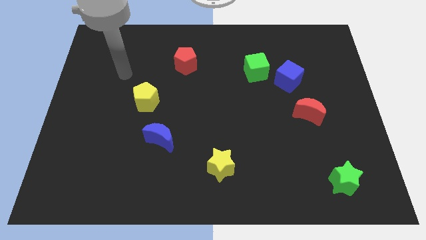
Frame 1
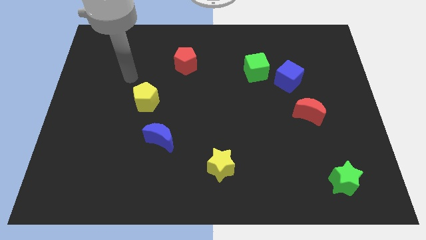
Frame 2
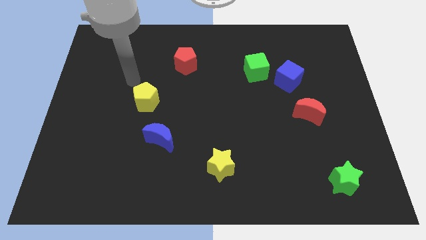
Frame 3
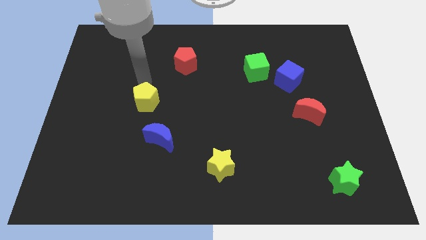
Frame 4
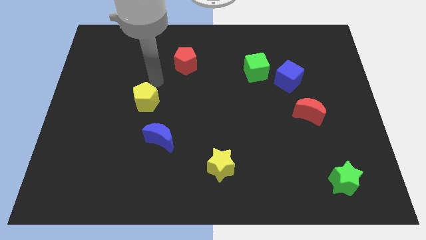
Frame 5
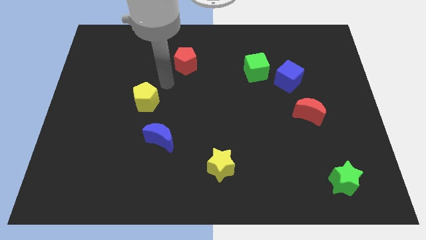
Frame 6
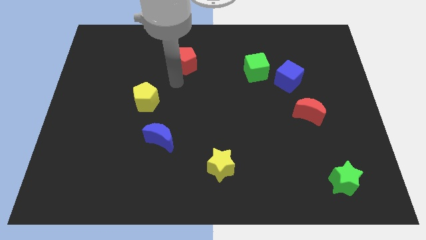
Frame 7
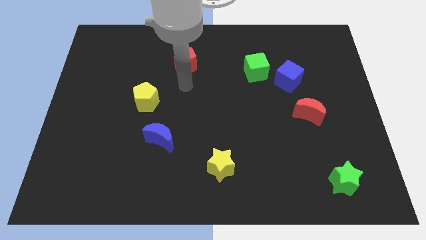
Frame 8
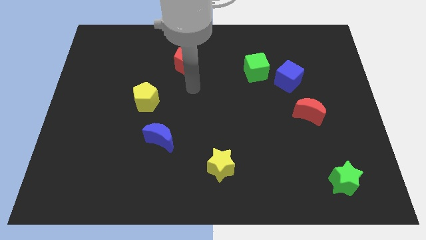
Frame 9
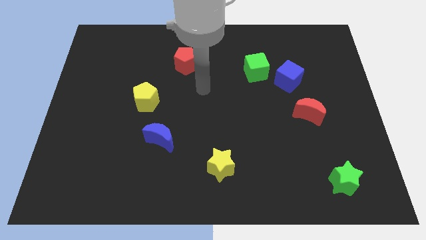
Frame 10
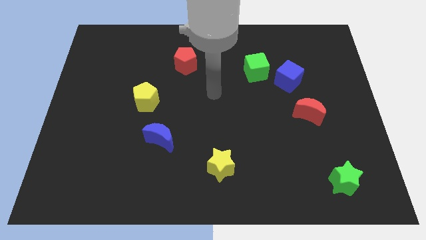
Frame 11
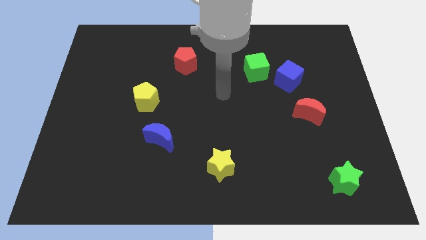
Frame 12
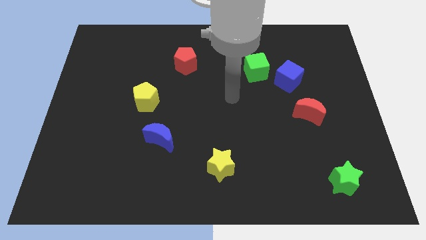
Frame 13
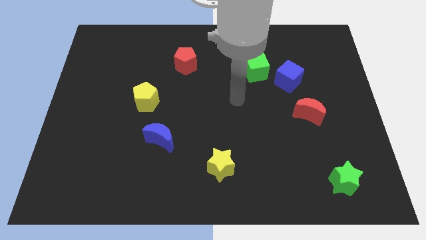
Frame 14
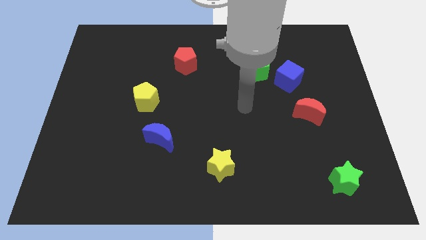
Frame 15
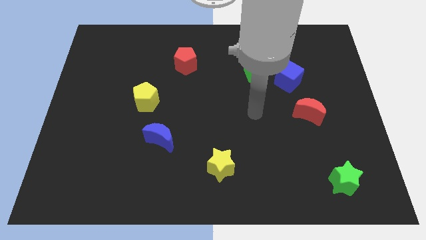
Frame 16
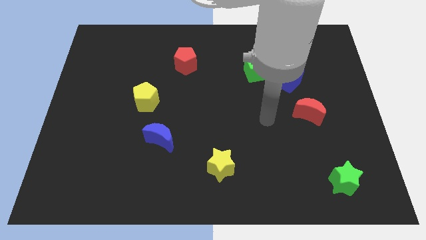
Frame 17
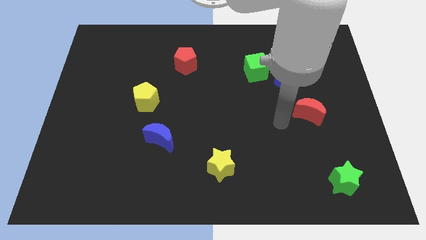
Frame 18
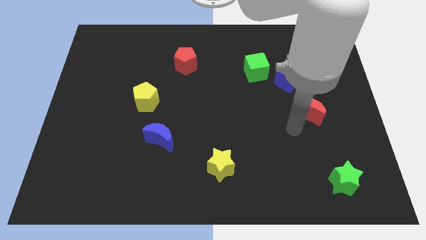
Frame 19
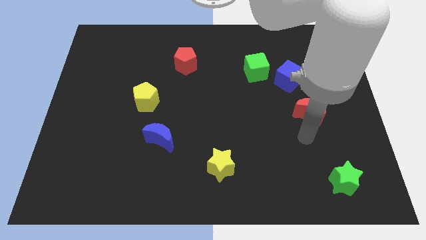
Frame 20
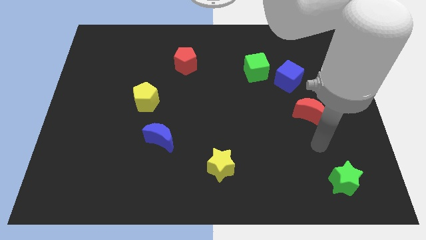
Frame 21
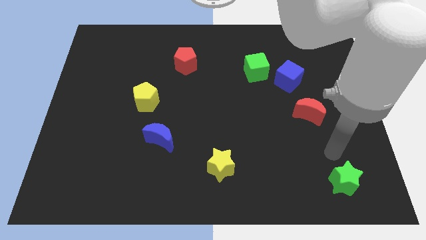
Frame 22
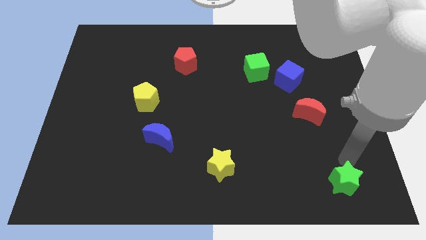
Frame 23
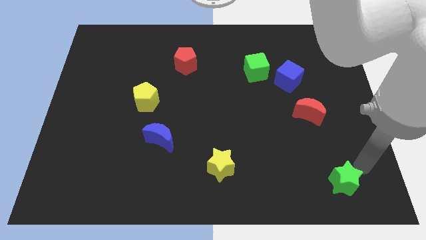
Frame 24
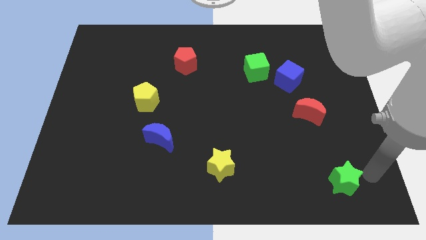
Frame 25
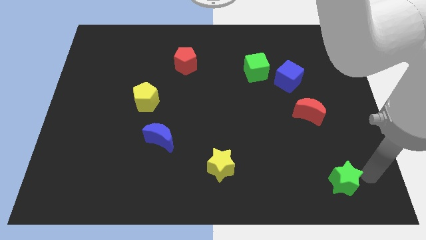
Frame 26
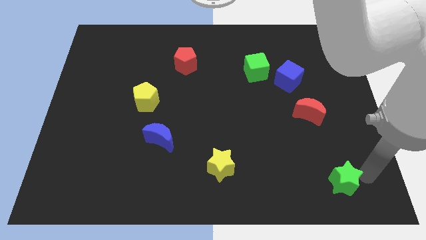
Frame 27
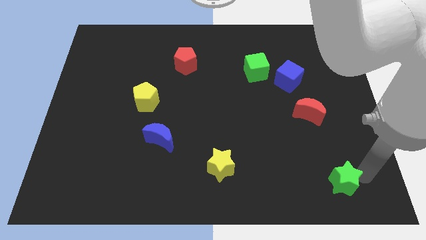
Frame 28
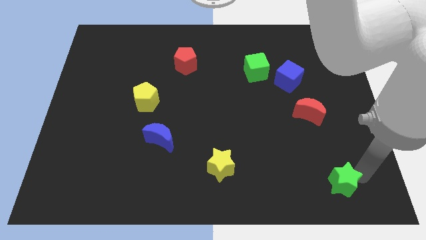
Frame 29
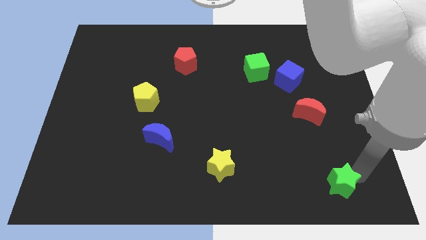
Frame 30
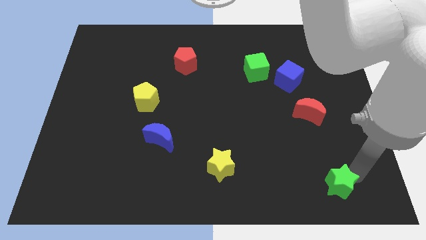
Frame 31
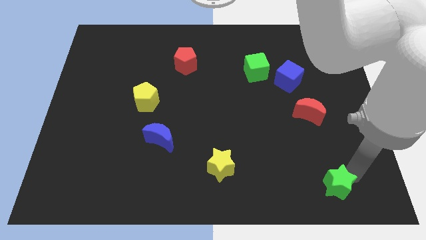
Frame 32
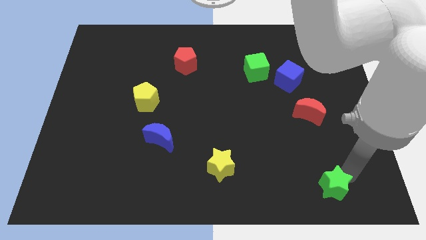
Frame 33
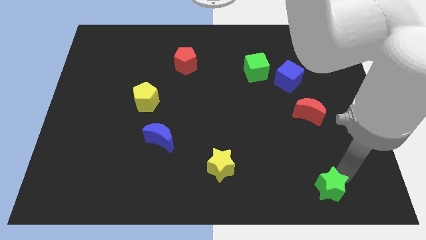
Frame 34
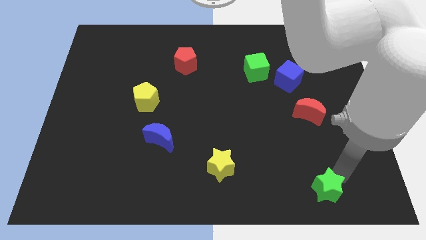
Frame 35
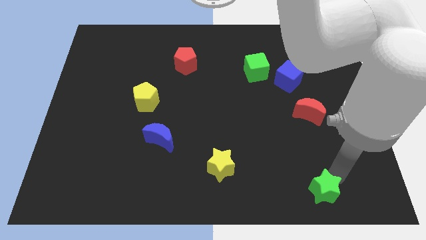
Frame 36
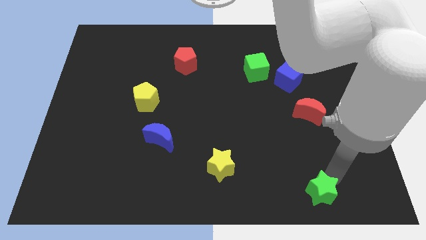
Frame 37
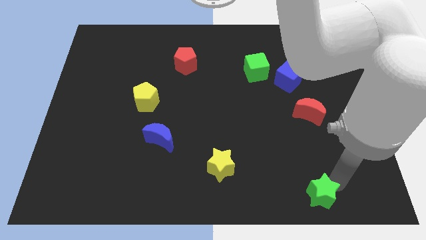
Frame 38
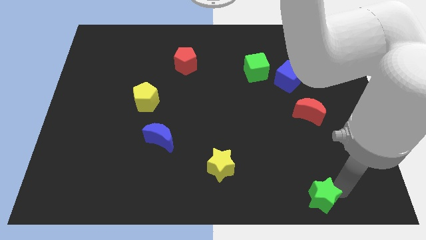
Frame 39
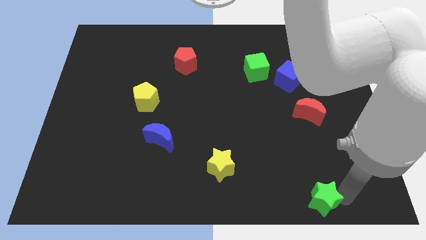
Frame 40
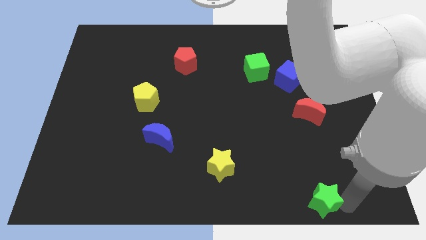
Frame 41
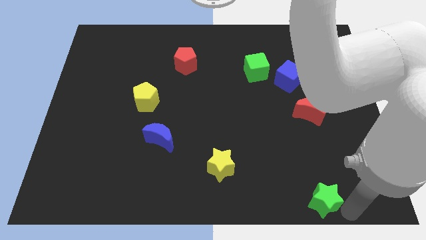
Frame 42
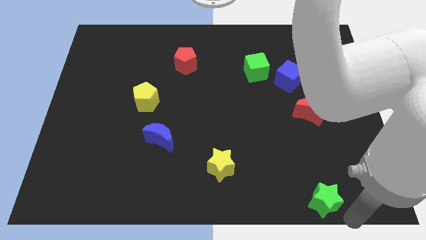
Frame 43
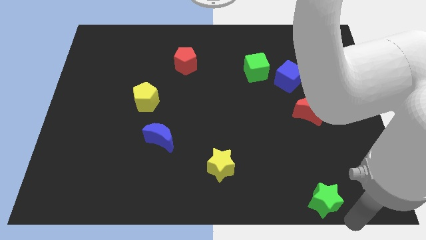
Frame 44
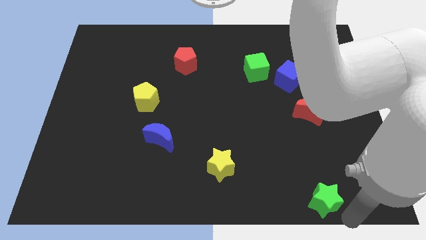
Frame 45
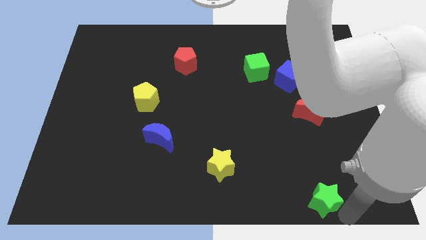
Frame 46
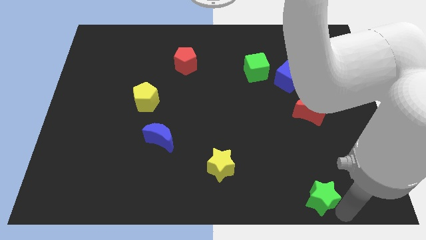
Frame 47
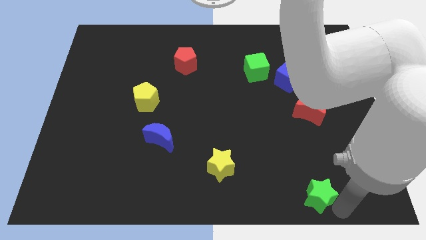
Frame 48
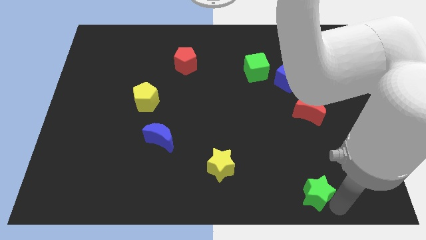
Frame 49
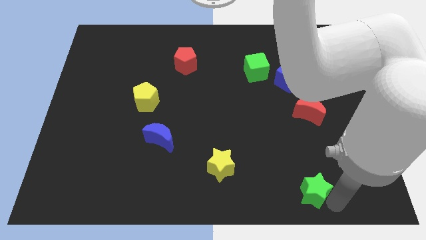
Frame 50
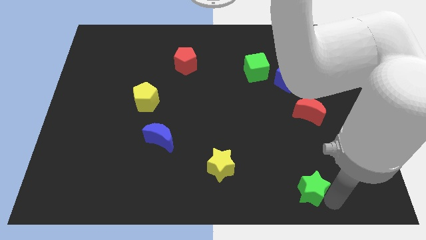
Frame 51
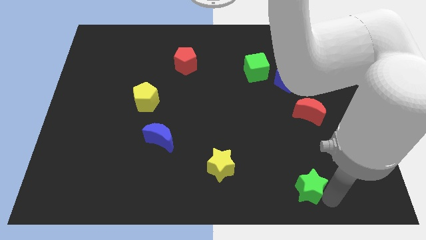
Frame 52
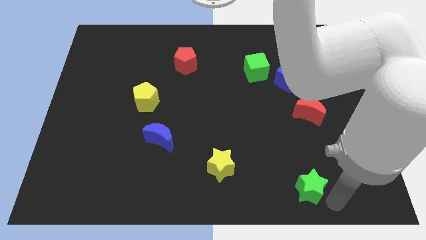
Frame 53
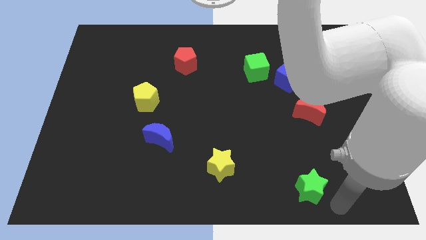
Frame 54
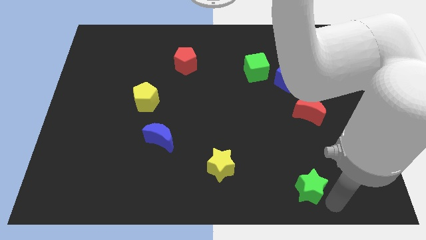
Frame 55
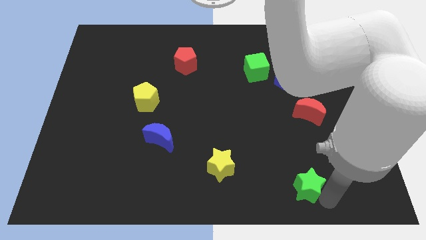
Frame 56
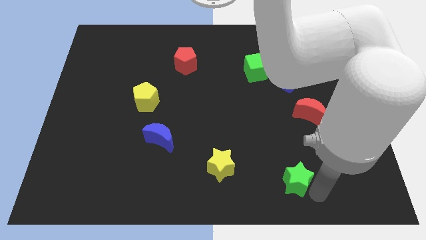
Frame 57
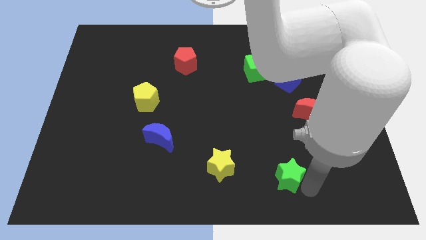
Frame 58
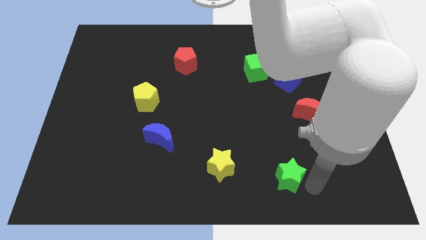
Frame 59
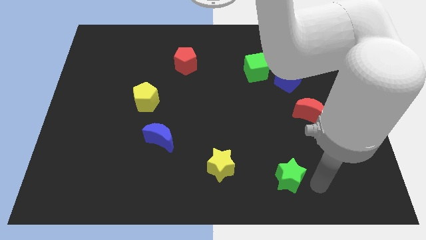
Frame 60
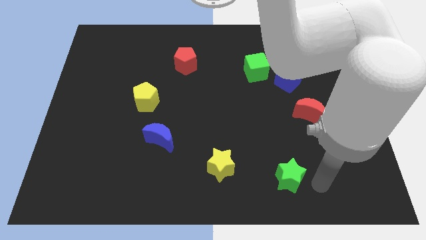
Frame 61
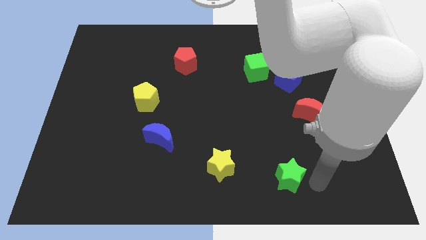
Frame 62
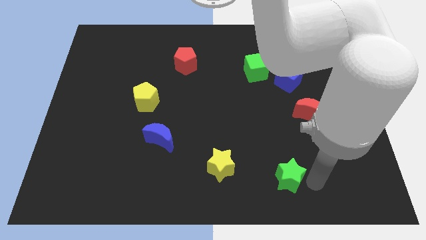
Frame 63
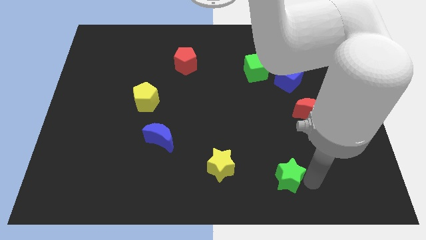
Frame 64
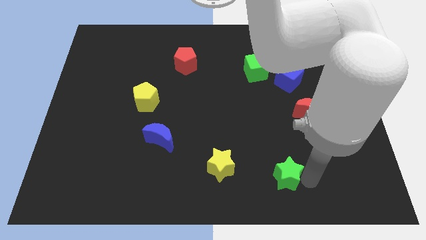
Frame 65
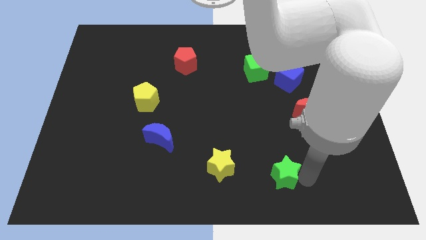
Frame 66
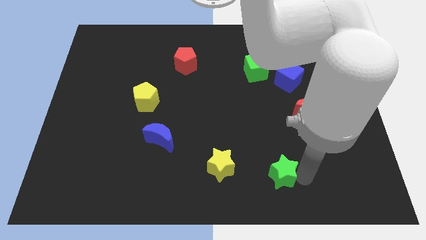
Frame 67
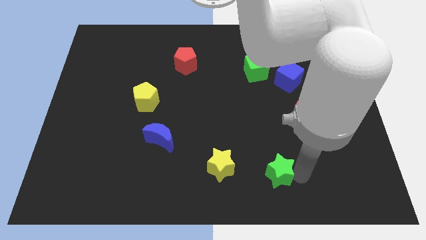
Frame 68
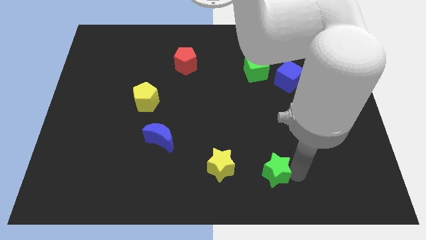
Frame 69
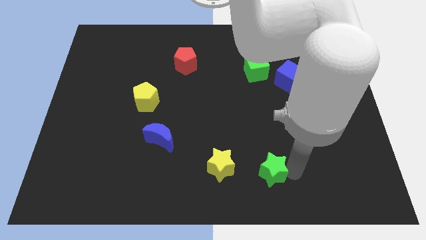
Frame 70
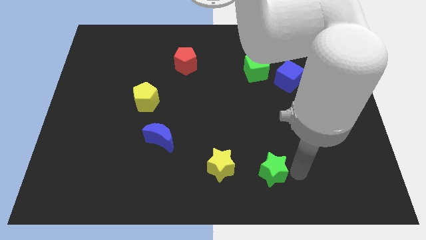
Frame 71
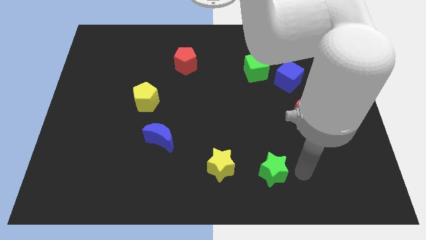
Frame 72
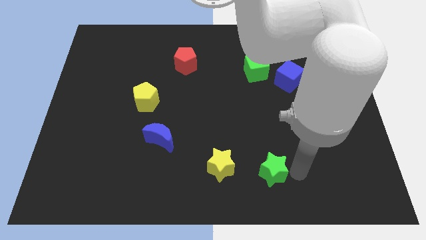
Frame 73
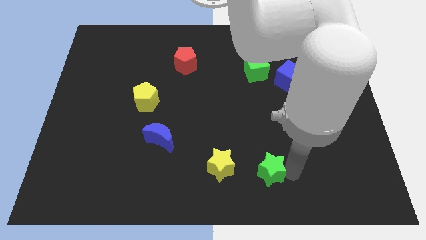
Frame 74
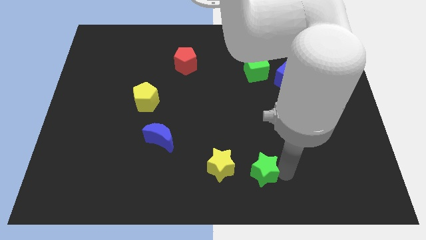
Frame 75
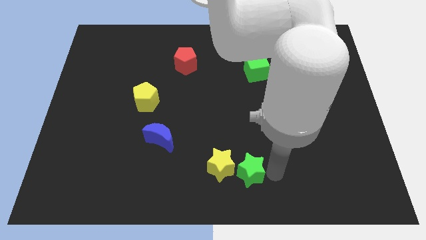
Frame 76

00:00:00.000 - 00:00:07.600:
move the green star towards the yellow star
